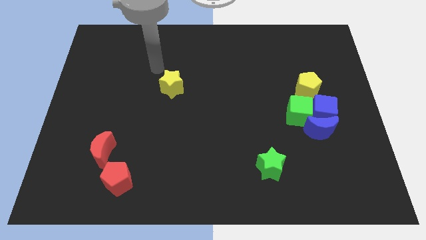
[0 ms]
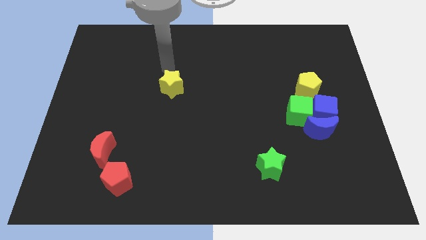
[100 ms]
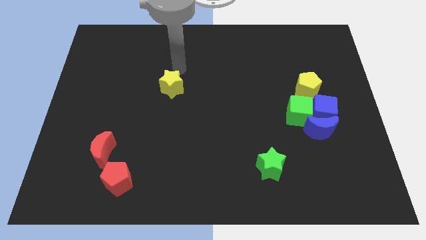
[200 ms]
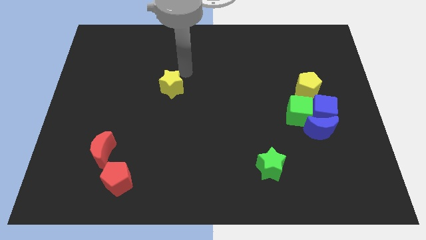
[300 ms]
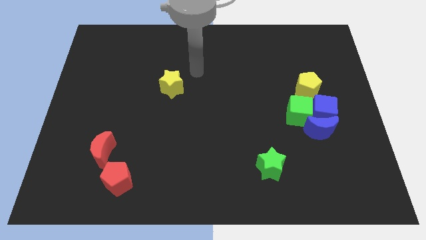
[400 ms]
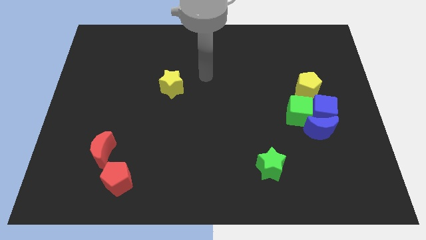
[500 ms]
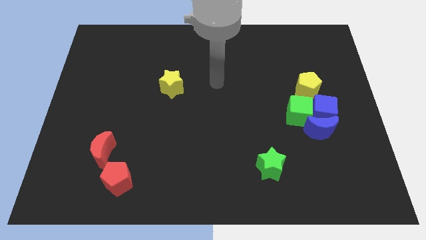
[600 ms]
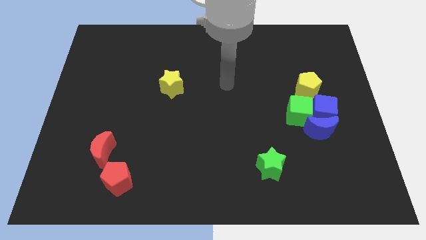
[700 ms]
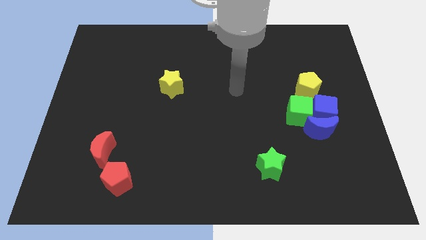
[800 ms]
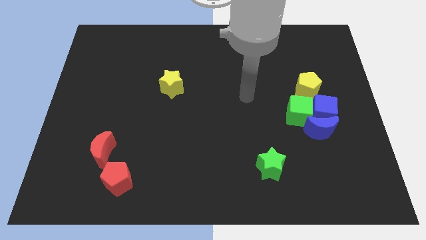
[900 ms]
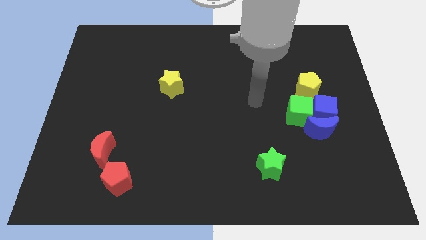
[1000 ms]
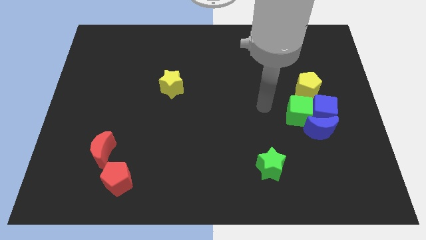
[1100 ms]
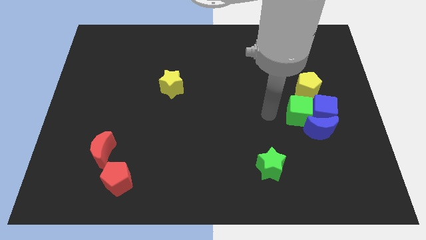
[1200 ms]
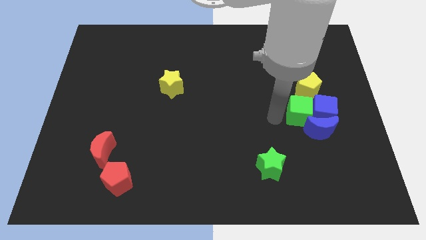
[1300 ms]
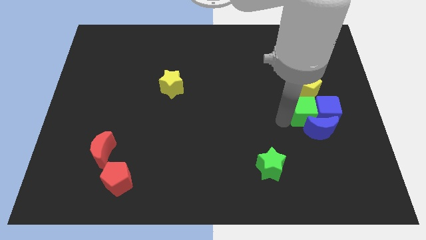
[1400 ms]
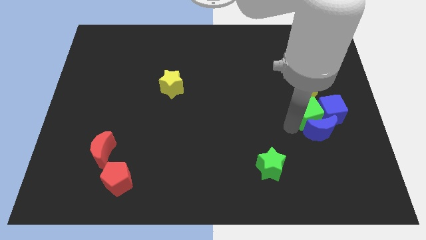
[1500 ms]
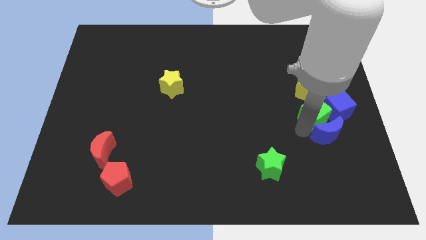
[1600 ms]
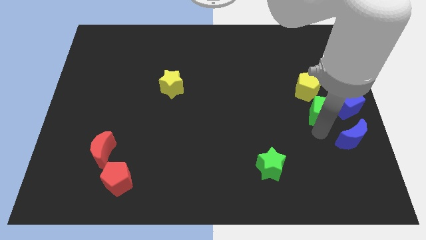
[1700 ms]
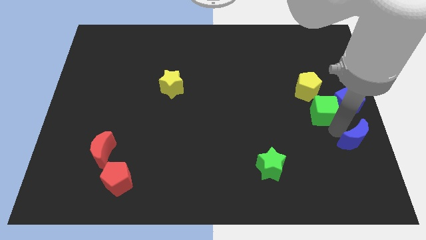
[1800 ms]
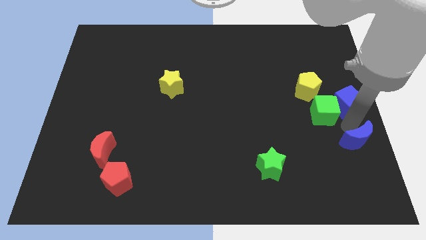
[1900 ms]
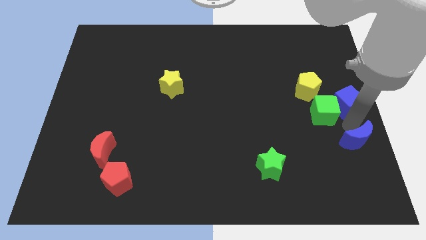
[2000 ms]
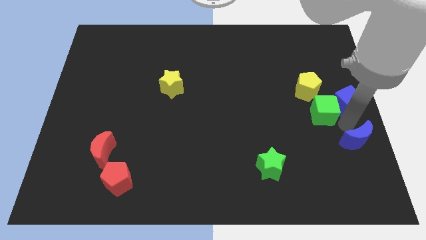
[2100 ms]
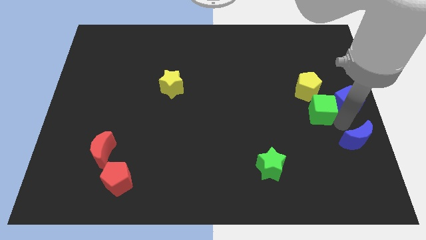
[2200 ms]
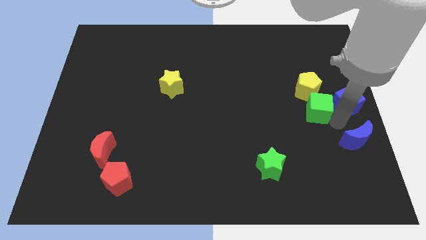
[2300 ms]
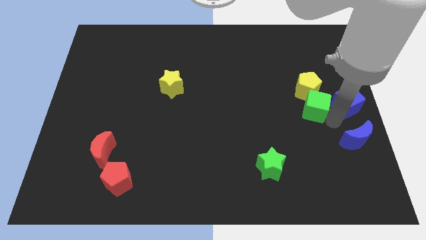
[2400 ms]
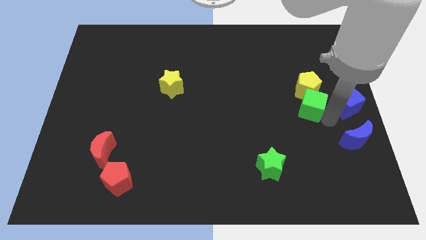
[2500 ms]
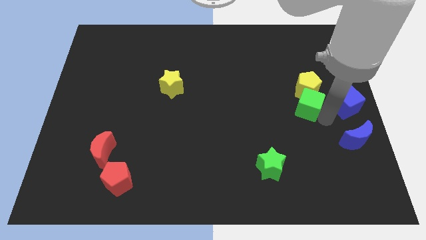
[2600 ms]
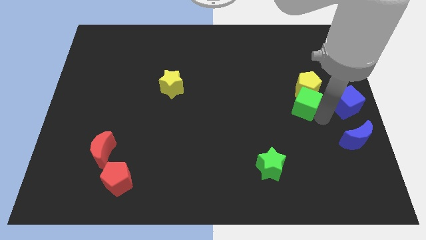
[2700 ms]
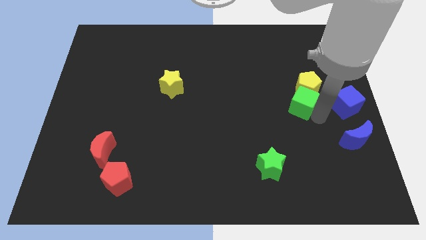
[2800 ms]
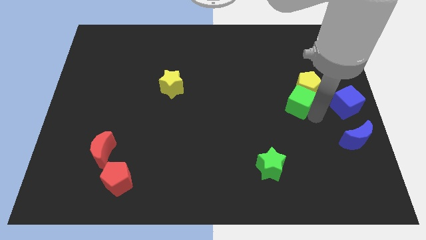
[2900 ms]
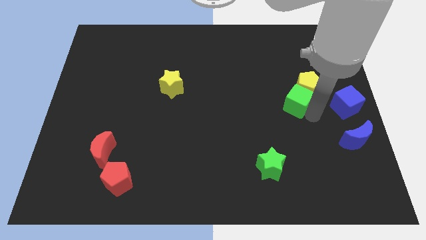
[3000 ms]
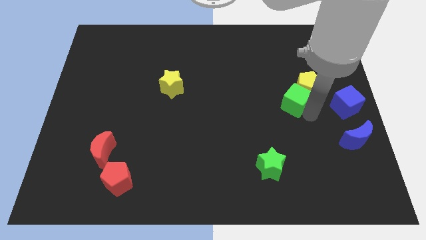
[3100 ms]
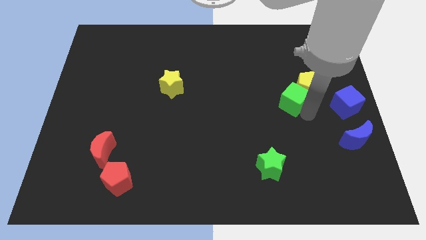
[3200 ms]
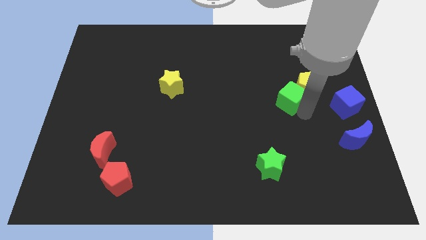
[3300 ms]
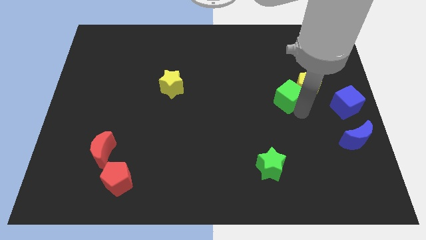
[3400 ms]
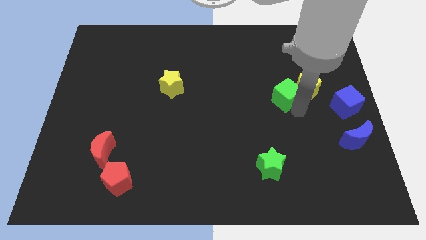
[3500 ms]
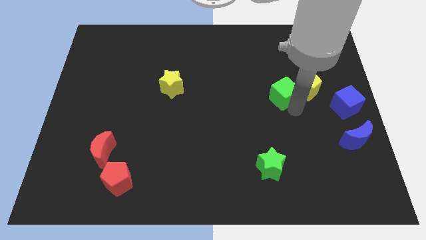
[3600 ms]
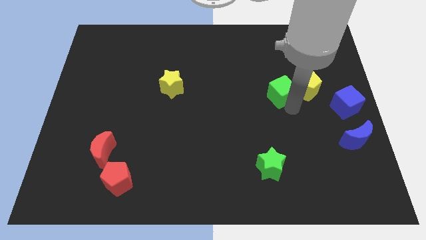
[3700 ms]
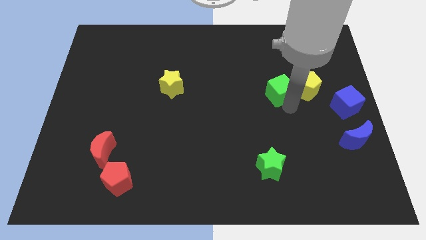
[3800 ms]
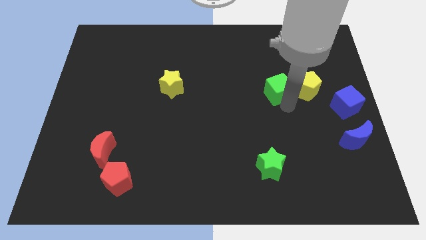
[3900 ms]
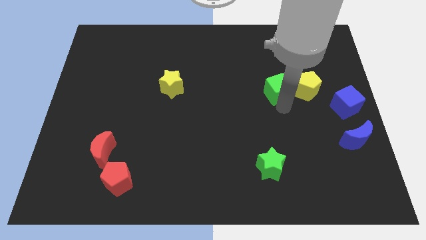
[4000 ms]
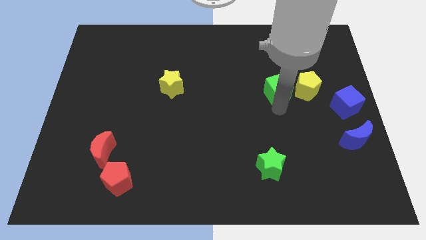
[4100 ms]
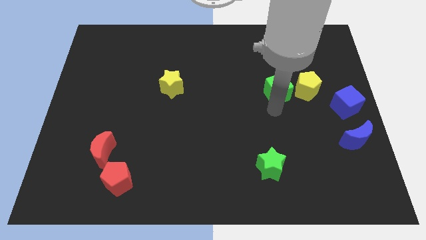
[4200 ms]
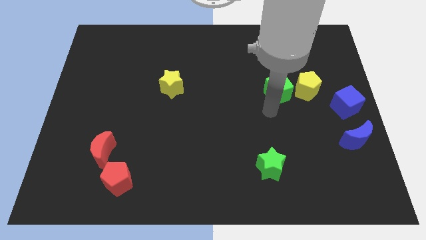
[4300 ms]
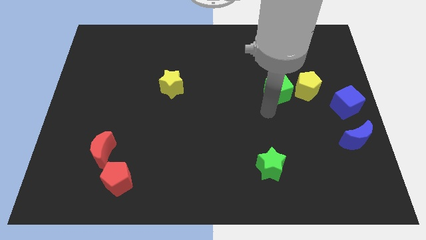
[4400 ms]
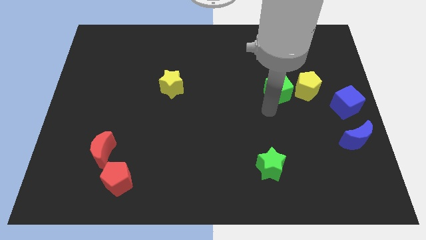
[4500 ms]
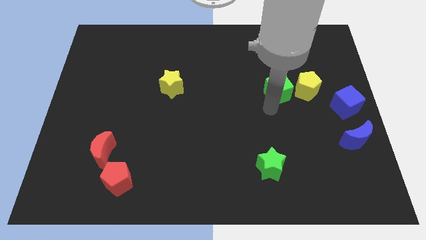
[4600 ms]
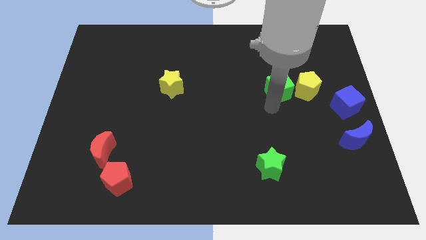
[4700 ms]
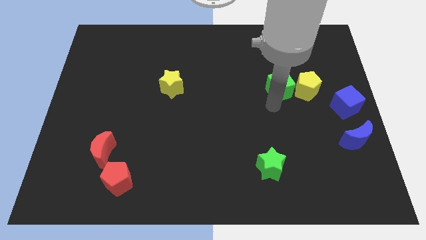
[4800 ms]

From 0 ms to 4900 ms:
push the green cube up somewhat

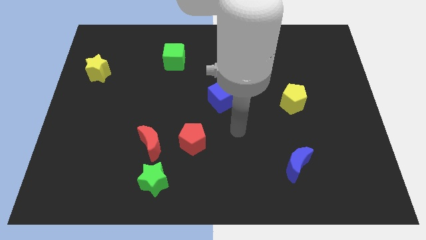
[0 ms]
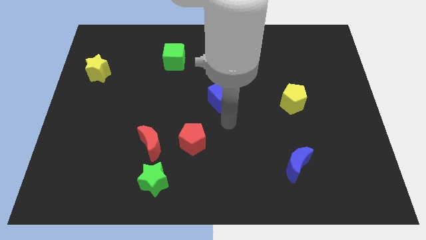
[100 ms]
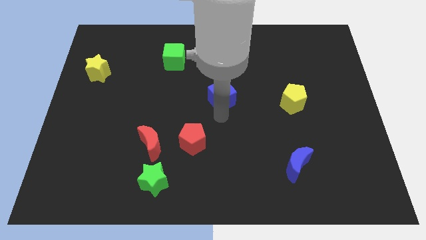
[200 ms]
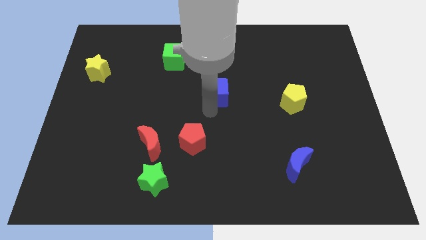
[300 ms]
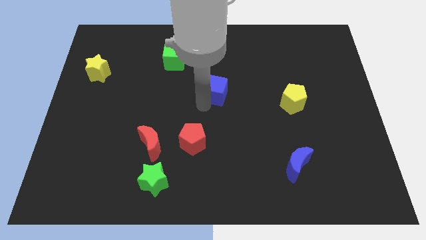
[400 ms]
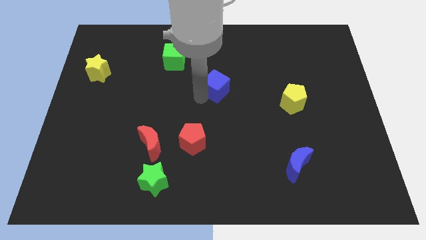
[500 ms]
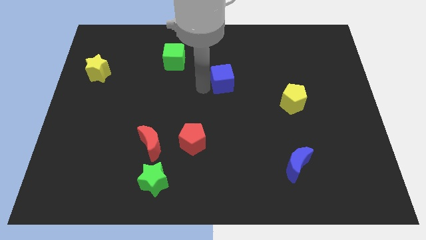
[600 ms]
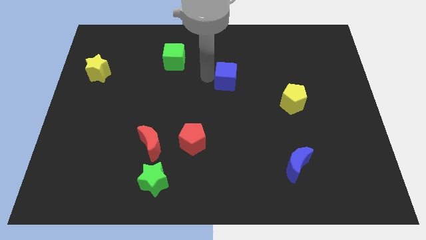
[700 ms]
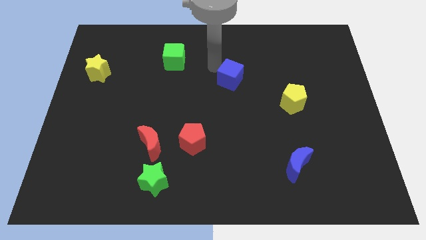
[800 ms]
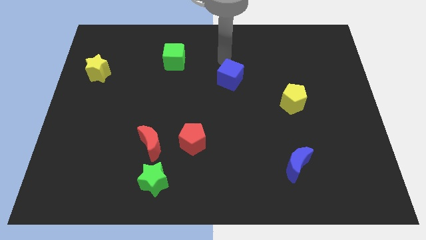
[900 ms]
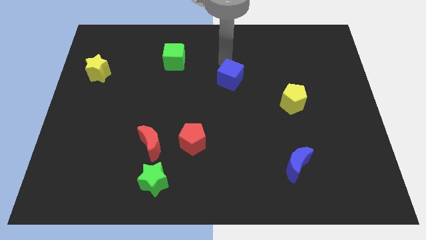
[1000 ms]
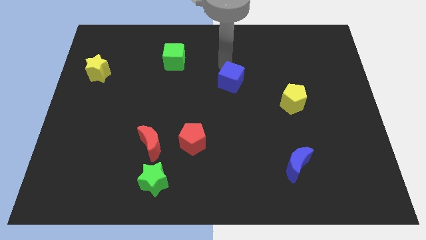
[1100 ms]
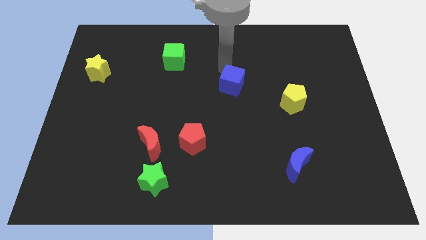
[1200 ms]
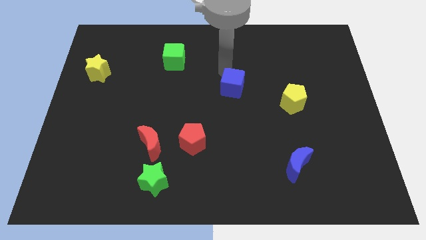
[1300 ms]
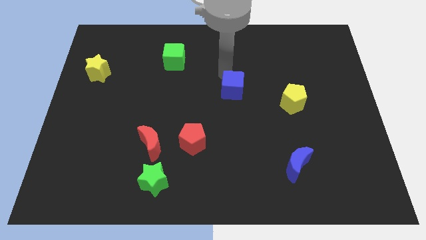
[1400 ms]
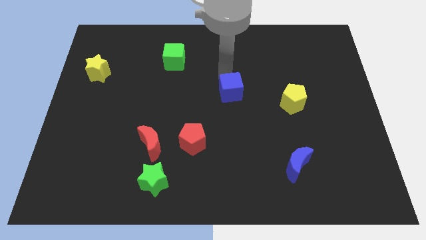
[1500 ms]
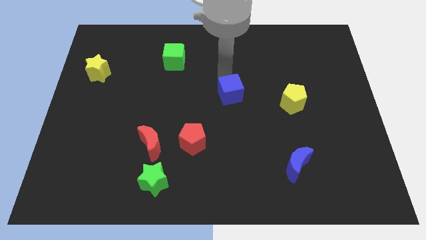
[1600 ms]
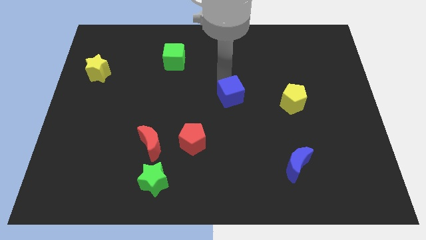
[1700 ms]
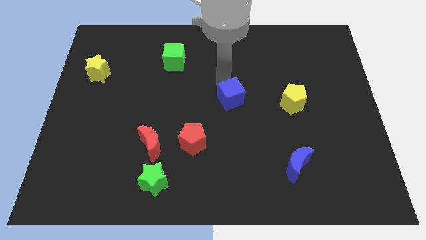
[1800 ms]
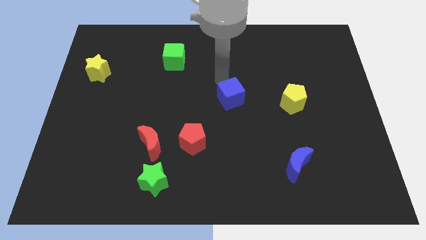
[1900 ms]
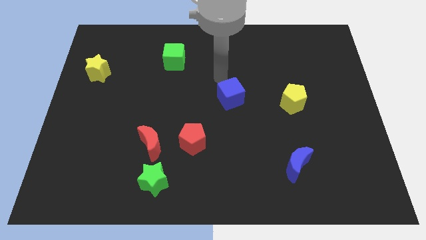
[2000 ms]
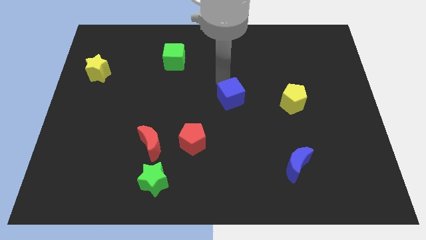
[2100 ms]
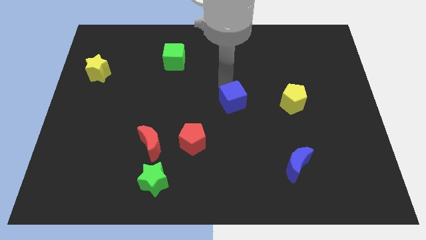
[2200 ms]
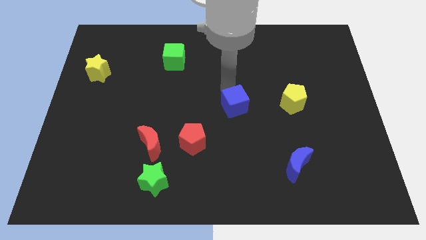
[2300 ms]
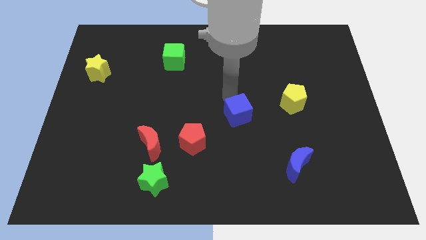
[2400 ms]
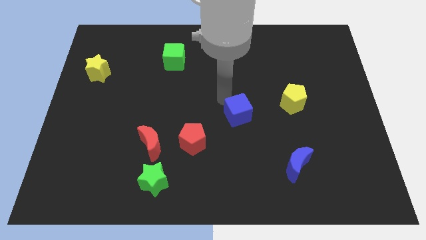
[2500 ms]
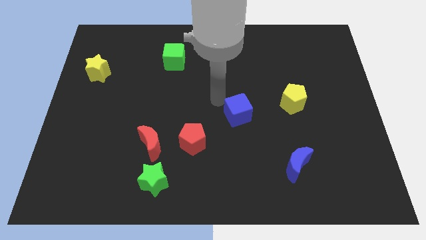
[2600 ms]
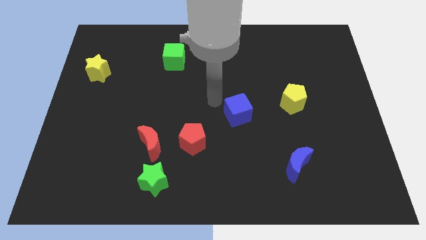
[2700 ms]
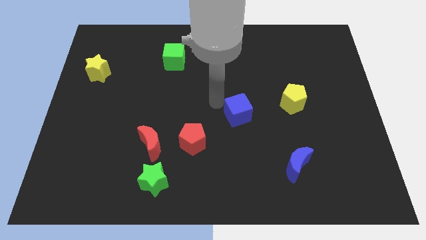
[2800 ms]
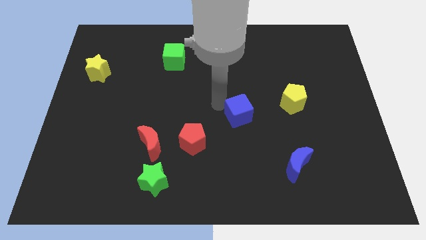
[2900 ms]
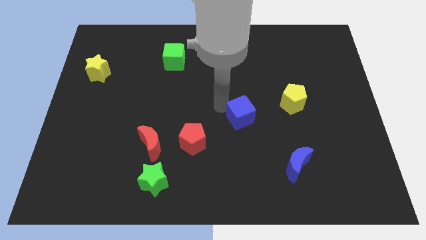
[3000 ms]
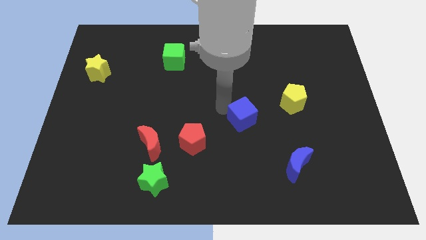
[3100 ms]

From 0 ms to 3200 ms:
move the blue cube a little downwards and to the right diagonally
